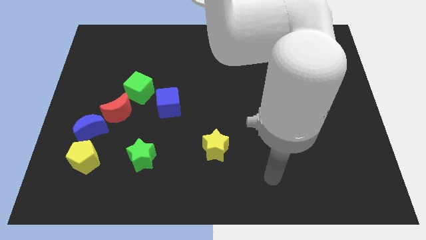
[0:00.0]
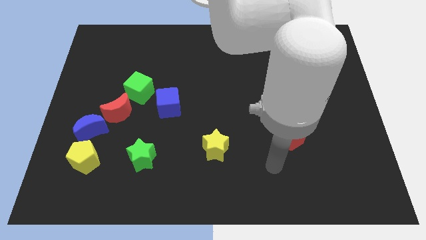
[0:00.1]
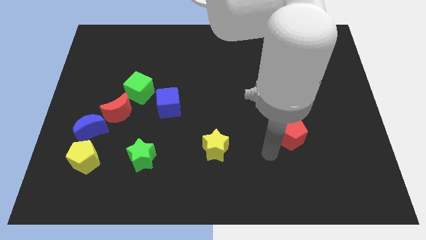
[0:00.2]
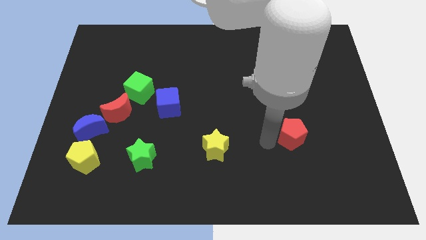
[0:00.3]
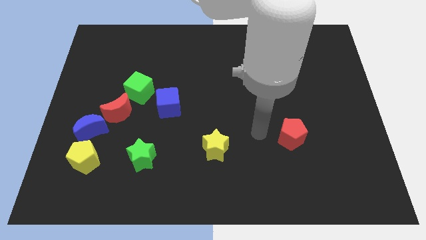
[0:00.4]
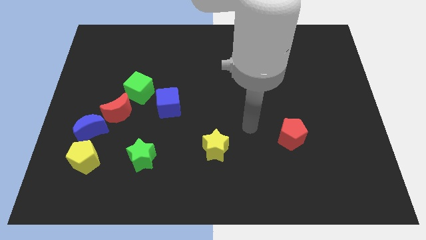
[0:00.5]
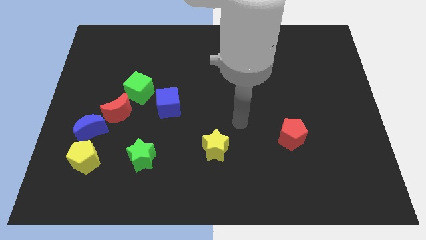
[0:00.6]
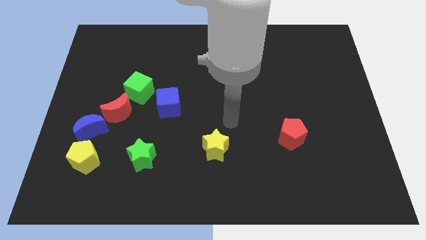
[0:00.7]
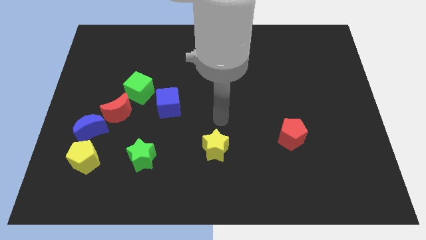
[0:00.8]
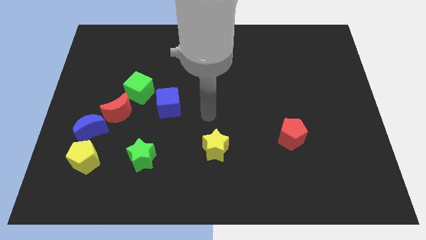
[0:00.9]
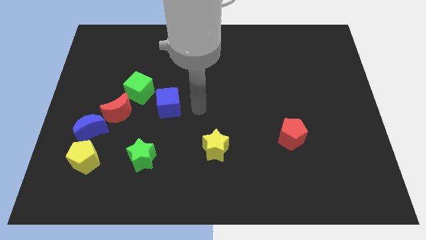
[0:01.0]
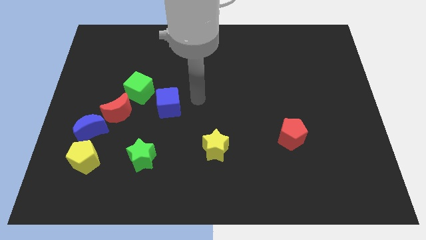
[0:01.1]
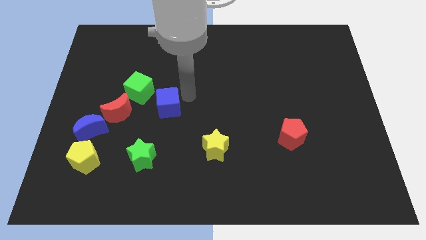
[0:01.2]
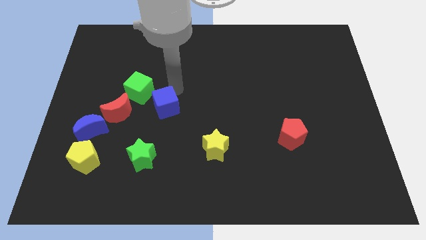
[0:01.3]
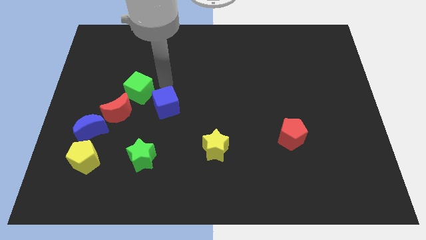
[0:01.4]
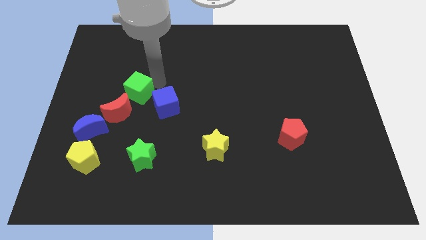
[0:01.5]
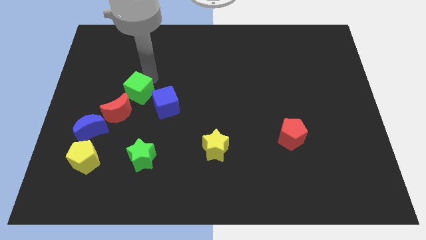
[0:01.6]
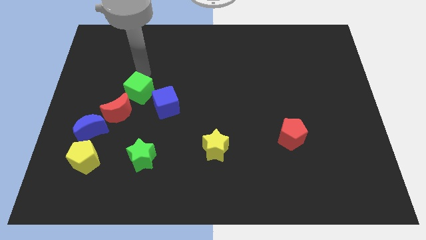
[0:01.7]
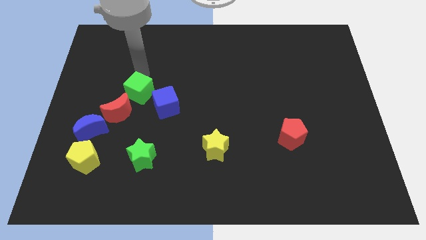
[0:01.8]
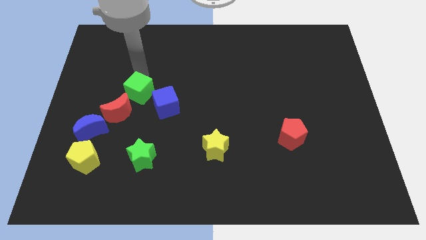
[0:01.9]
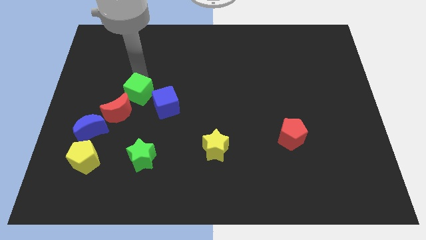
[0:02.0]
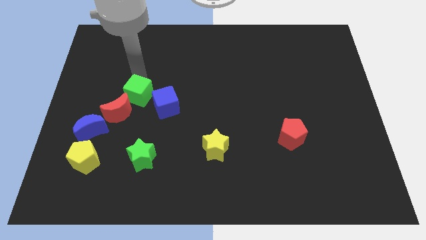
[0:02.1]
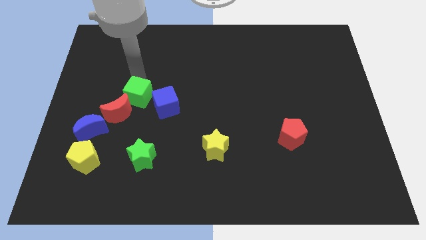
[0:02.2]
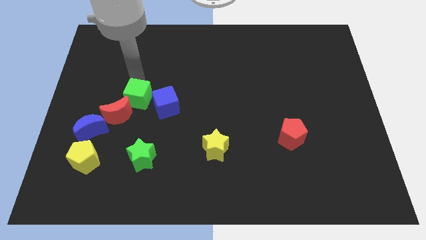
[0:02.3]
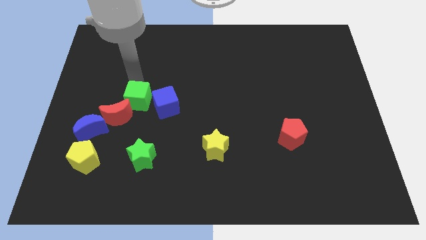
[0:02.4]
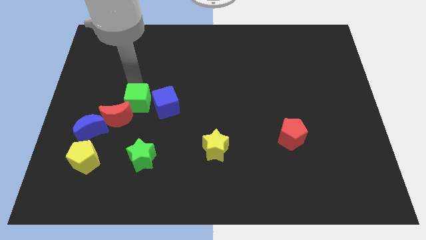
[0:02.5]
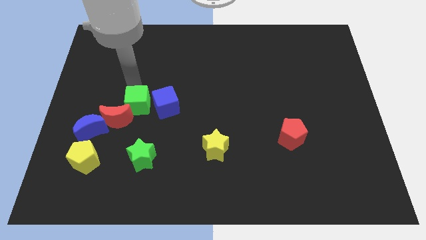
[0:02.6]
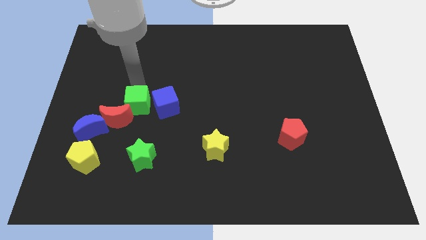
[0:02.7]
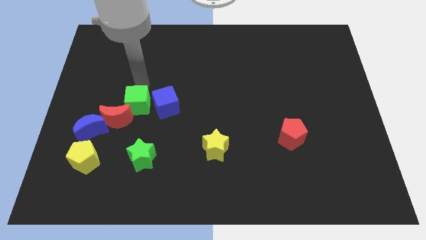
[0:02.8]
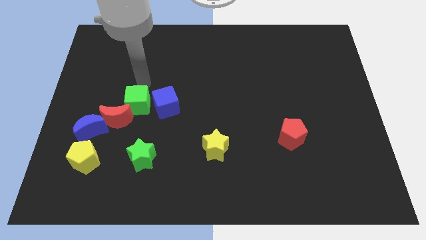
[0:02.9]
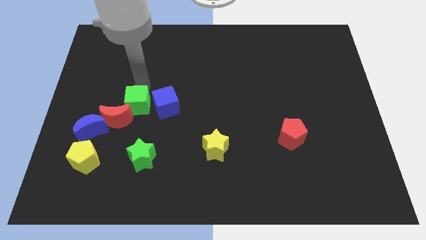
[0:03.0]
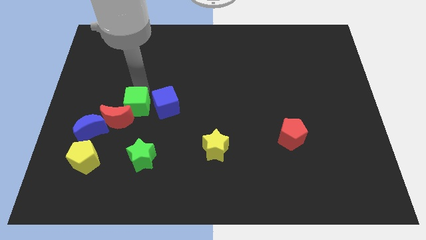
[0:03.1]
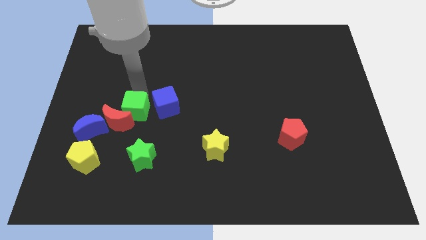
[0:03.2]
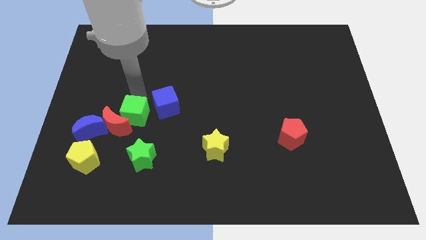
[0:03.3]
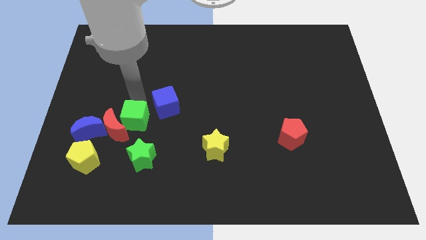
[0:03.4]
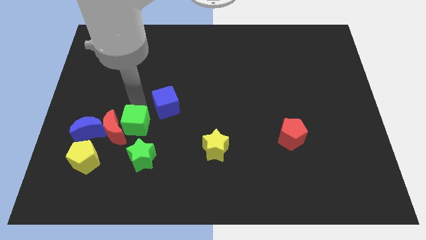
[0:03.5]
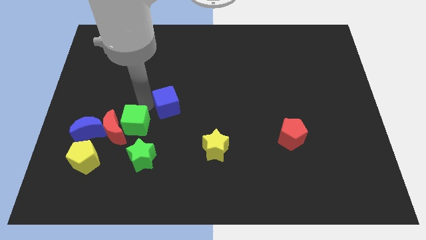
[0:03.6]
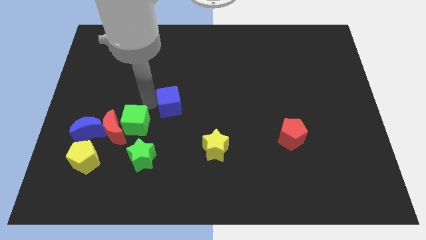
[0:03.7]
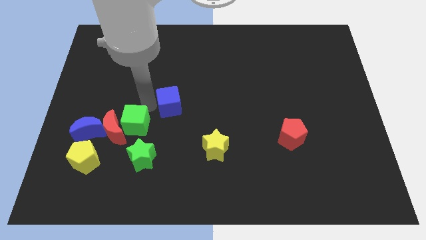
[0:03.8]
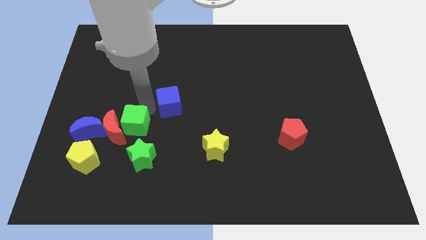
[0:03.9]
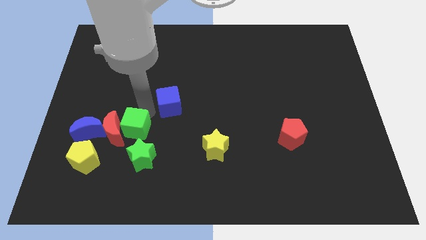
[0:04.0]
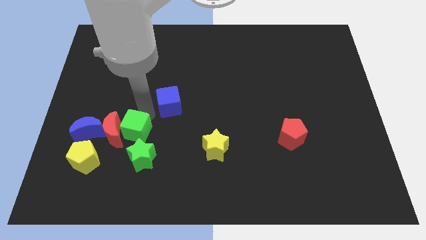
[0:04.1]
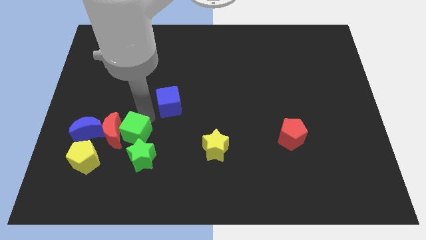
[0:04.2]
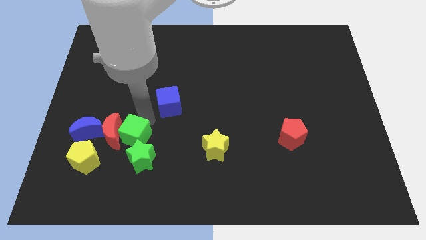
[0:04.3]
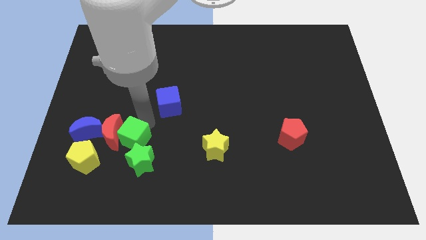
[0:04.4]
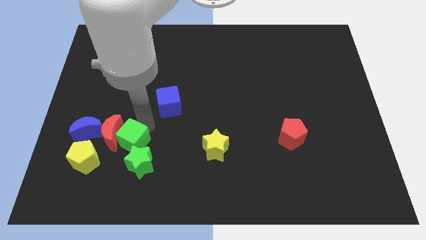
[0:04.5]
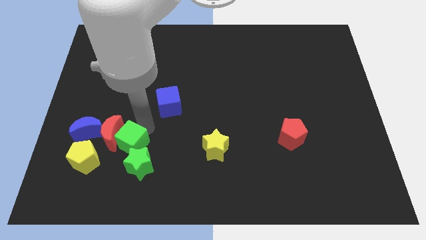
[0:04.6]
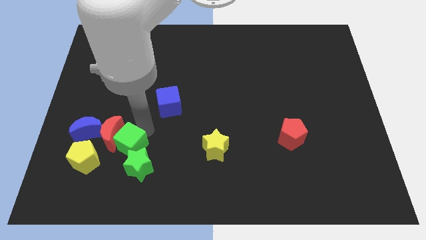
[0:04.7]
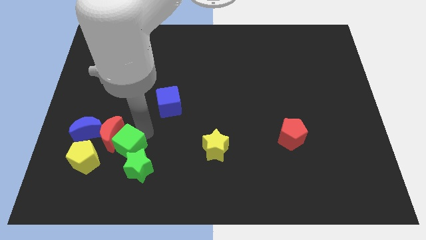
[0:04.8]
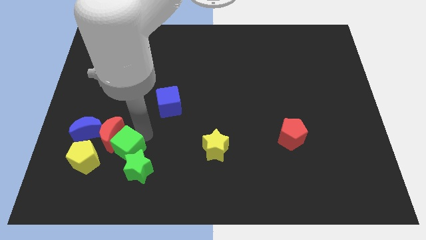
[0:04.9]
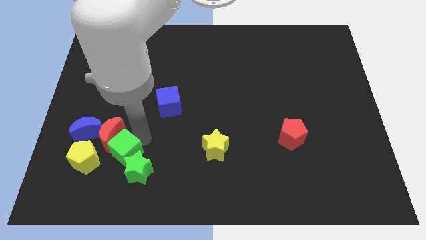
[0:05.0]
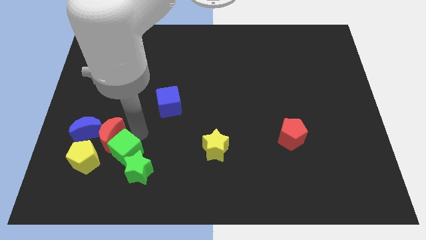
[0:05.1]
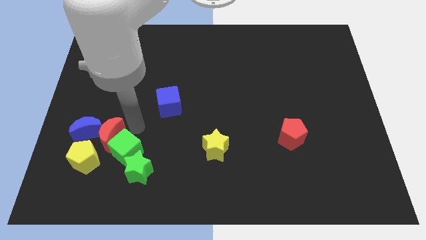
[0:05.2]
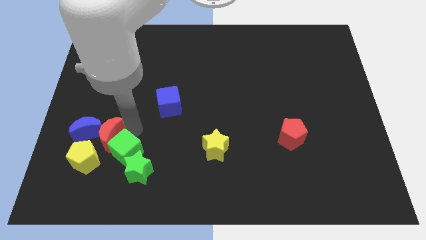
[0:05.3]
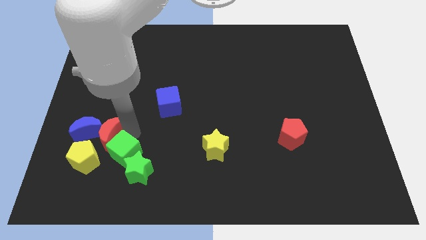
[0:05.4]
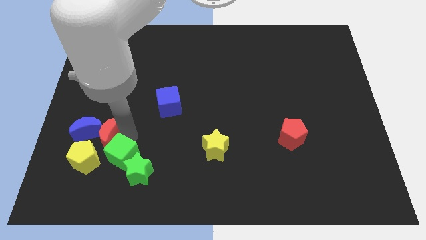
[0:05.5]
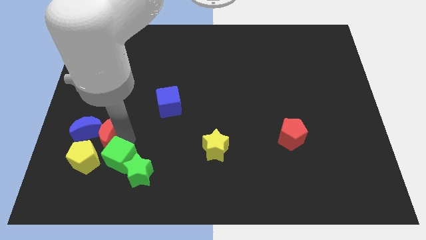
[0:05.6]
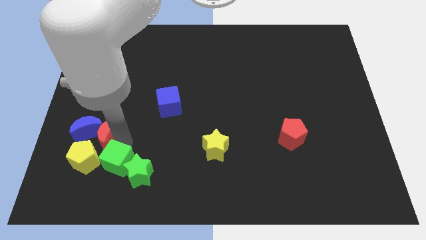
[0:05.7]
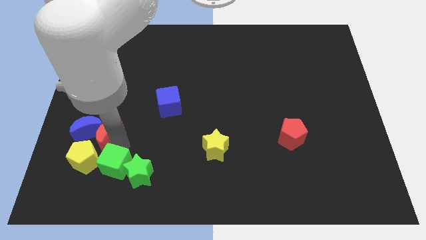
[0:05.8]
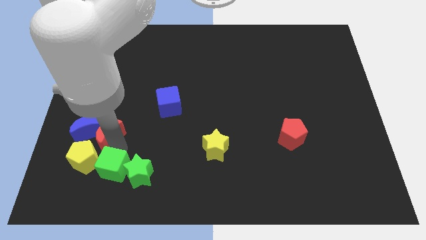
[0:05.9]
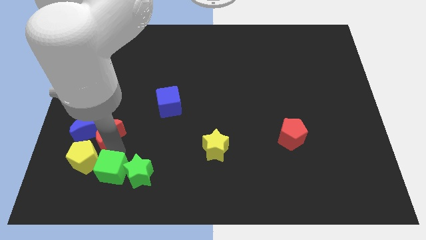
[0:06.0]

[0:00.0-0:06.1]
move the green cube diagonally down and to the left of the green star

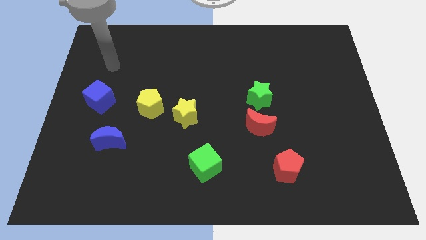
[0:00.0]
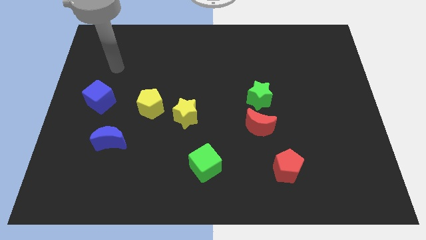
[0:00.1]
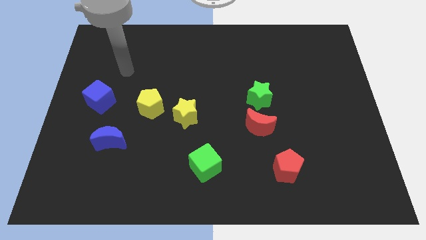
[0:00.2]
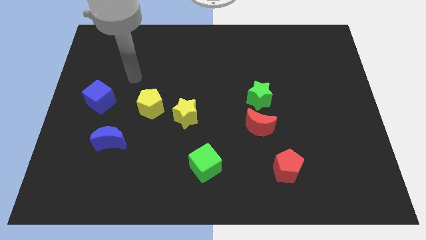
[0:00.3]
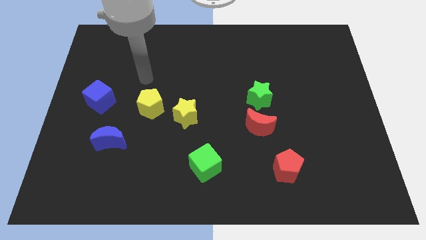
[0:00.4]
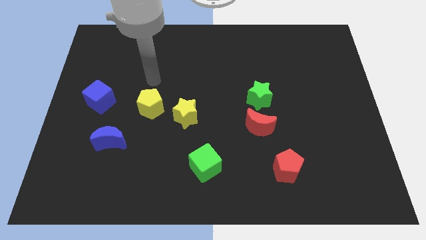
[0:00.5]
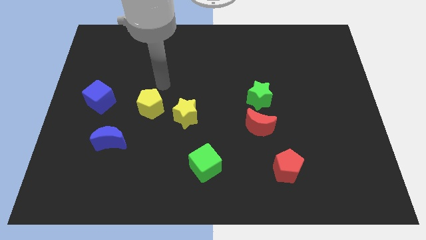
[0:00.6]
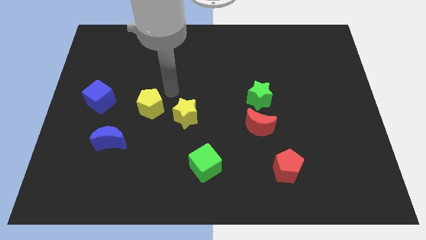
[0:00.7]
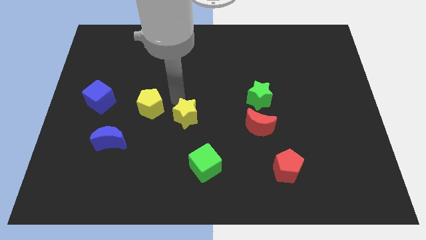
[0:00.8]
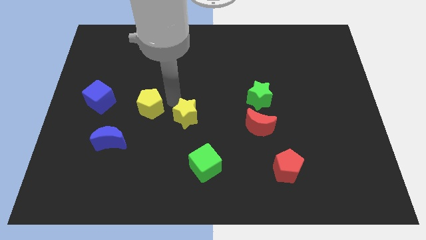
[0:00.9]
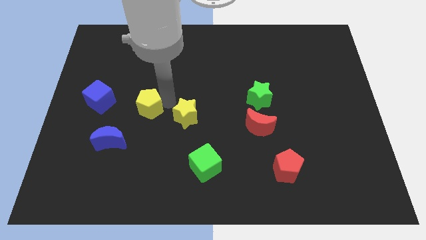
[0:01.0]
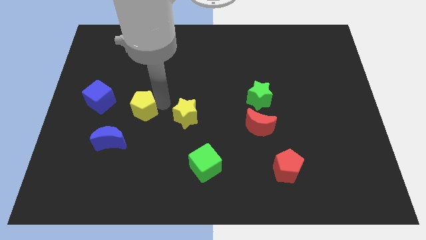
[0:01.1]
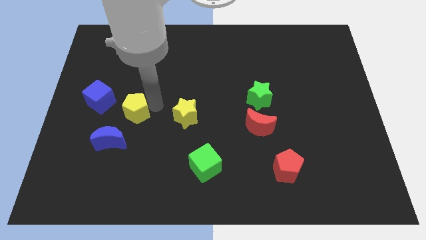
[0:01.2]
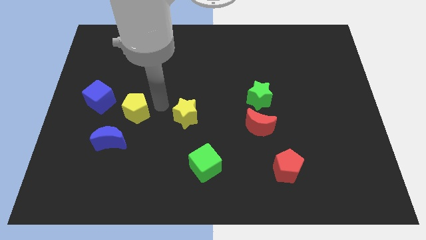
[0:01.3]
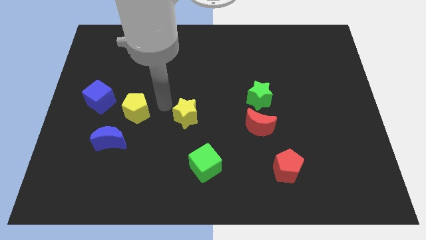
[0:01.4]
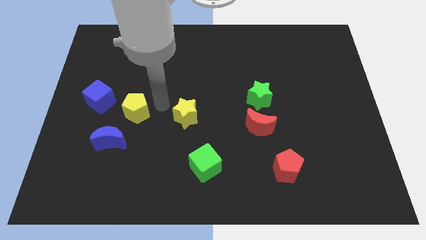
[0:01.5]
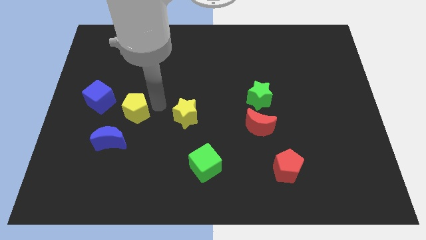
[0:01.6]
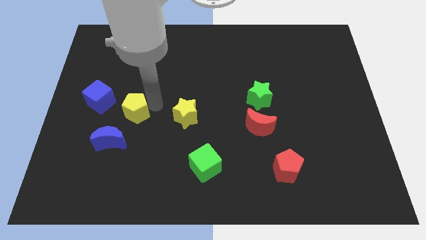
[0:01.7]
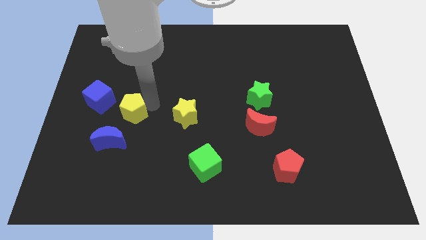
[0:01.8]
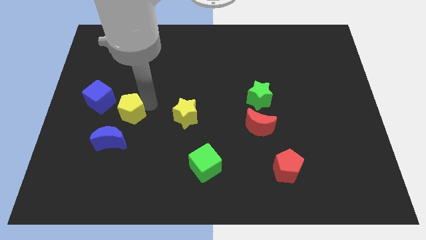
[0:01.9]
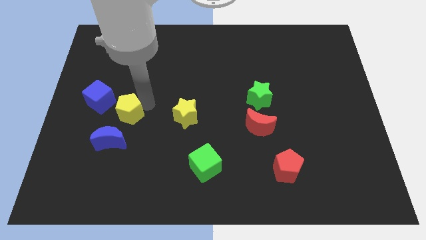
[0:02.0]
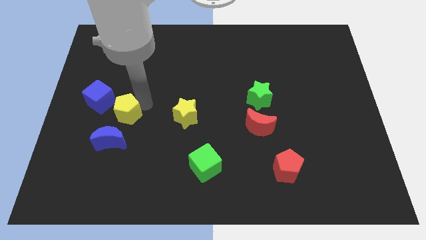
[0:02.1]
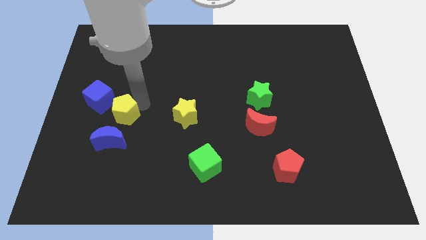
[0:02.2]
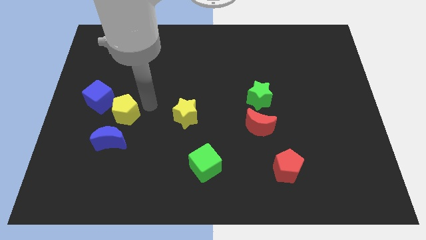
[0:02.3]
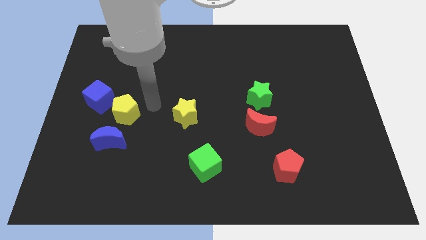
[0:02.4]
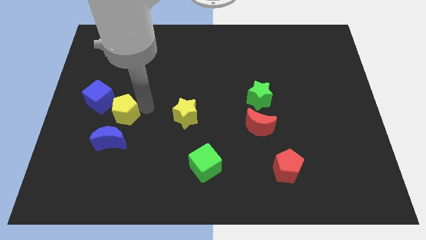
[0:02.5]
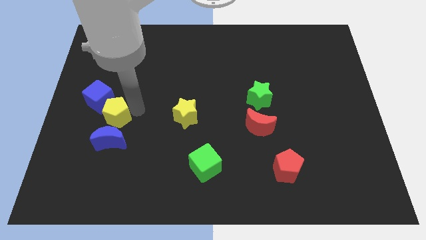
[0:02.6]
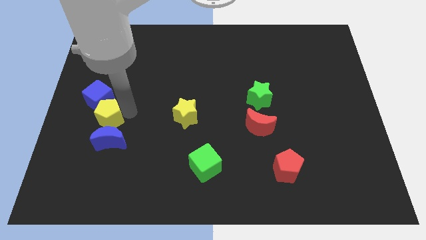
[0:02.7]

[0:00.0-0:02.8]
push the yellow pentagon diagonally up and to the left of the blue moon
